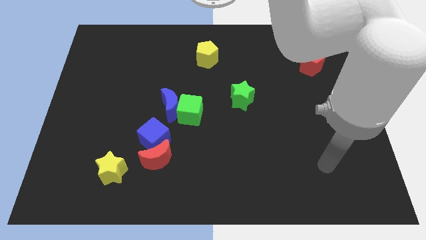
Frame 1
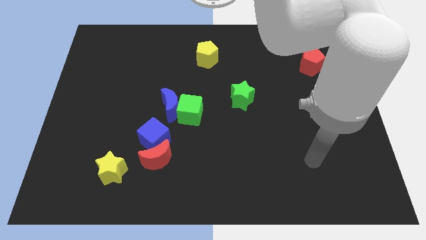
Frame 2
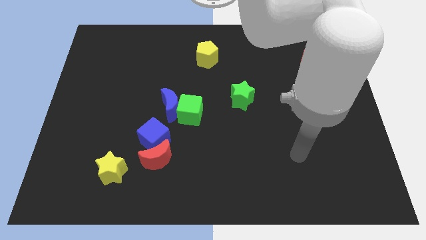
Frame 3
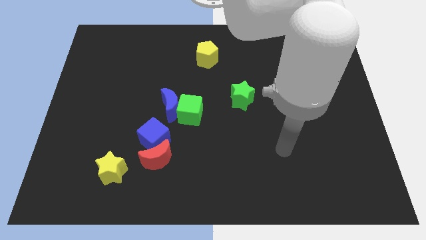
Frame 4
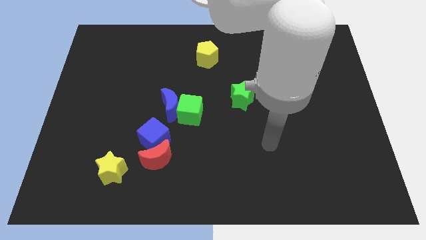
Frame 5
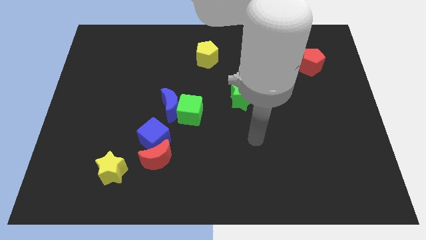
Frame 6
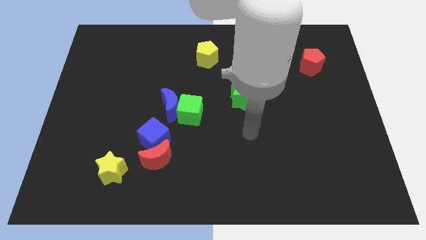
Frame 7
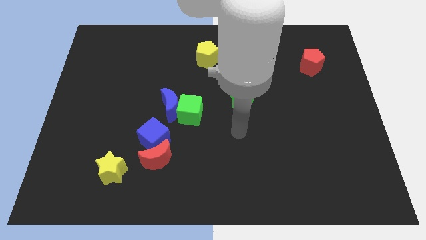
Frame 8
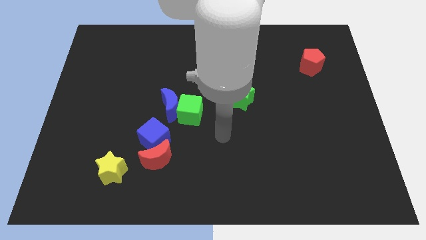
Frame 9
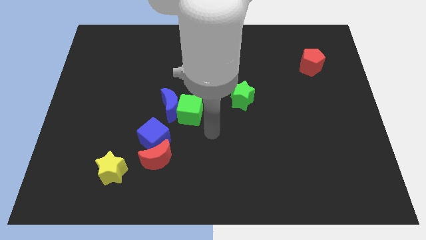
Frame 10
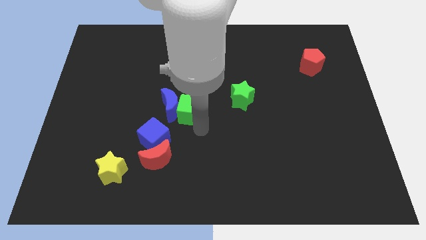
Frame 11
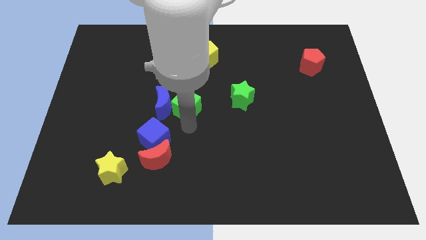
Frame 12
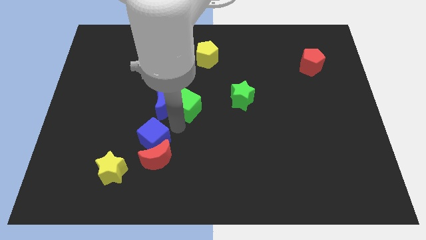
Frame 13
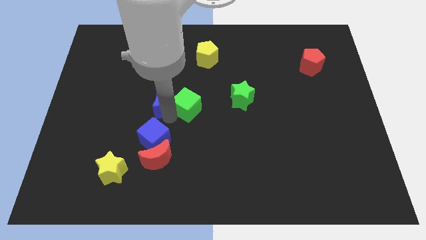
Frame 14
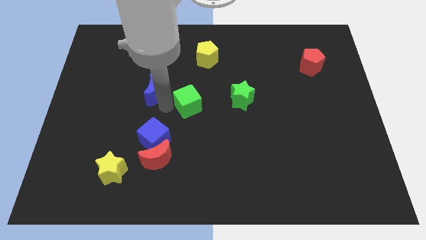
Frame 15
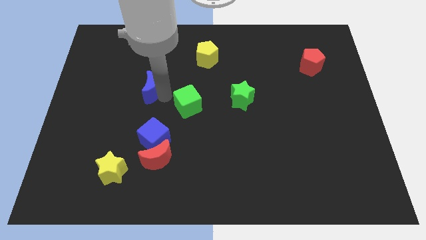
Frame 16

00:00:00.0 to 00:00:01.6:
move the green cube away from the blue moon

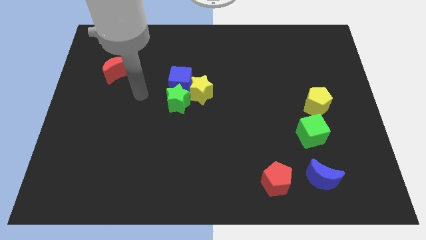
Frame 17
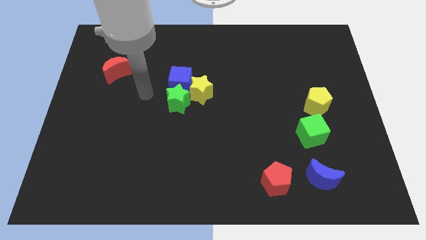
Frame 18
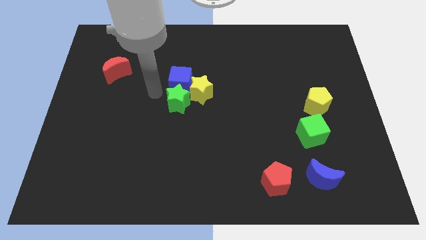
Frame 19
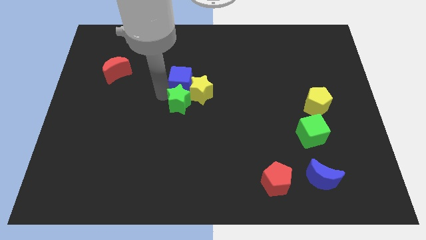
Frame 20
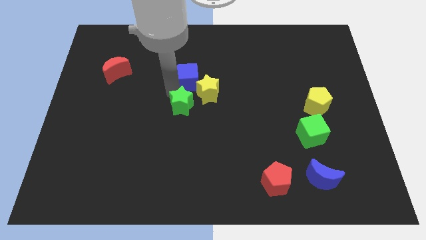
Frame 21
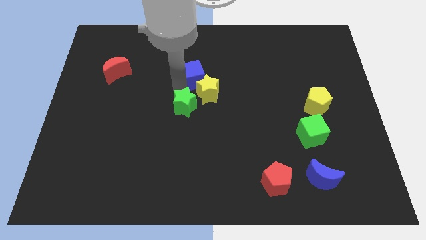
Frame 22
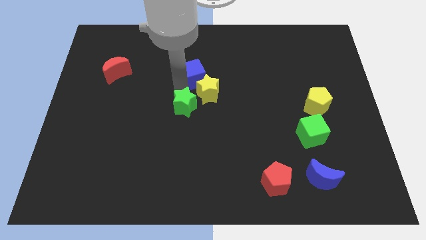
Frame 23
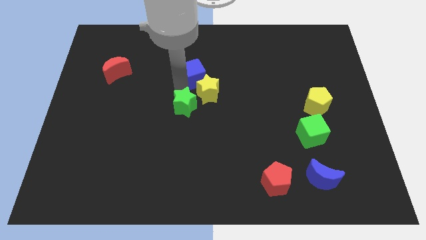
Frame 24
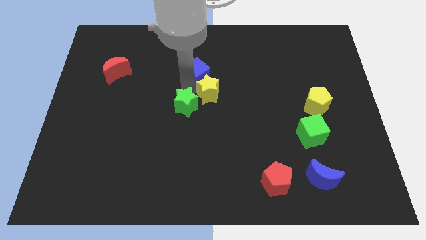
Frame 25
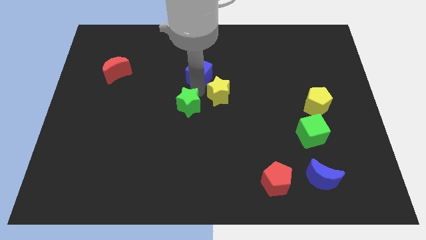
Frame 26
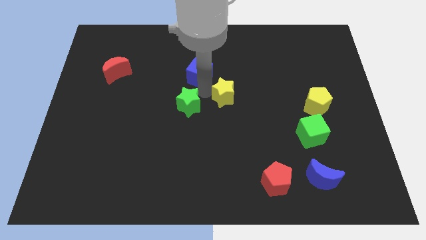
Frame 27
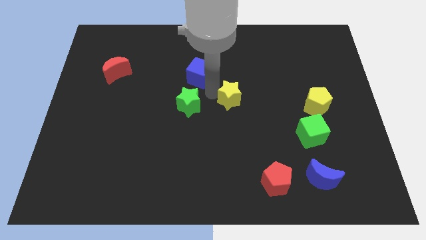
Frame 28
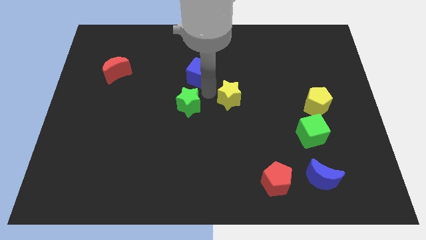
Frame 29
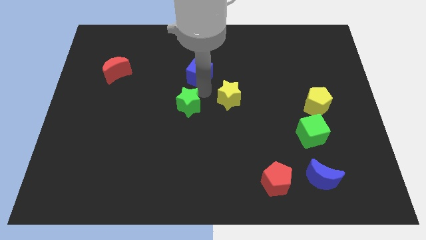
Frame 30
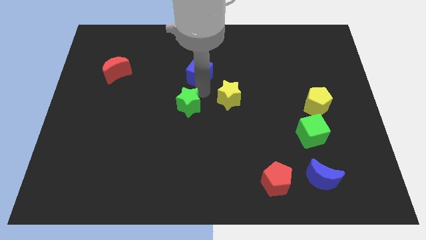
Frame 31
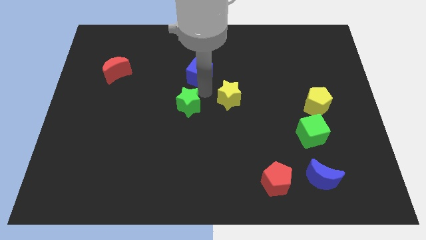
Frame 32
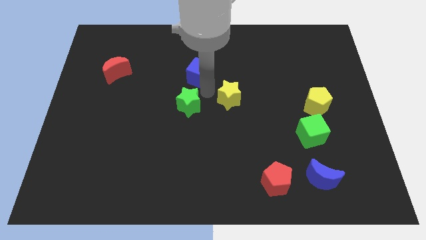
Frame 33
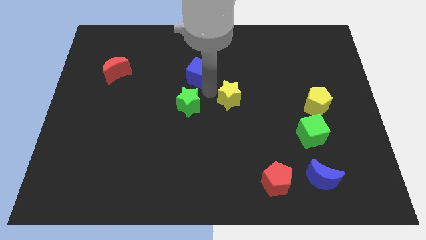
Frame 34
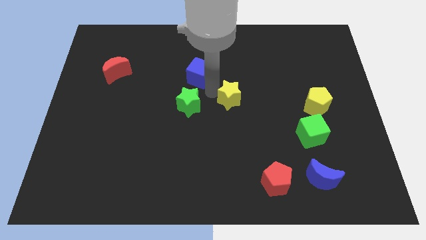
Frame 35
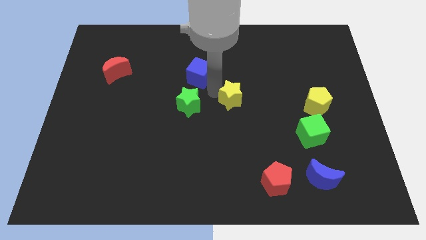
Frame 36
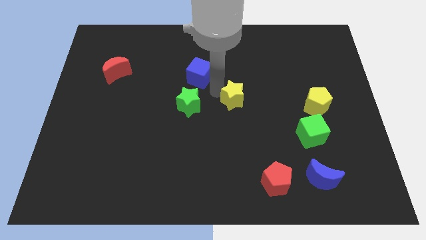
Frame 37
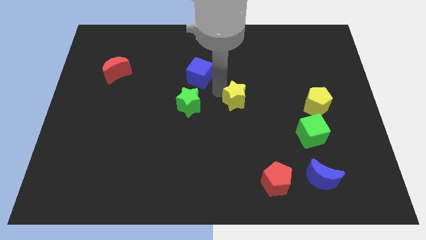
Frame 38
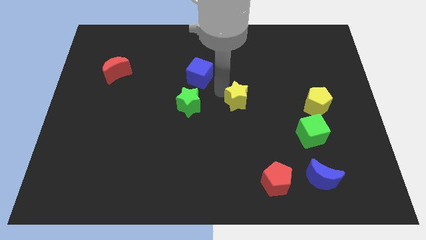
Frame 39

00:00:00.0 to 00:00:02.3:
move the yellow star away from the blue cube and green star

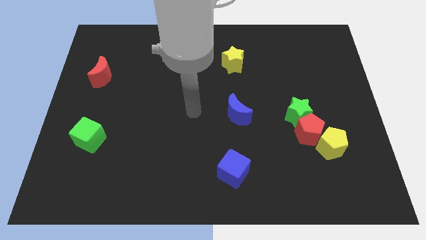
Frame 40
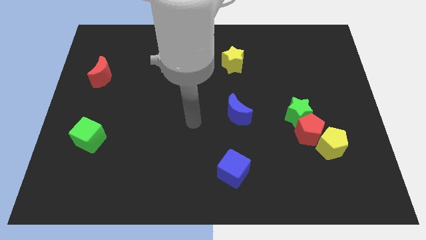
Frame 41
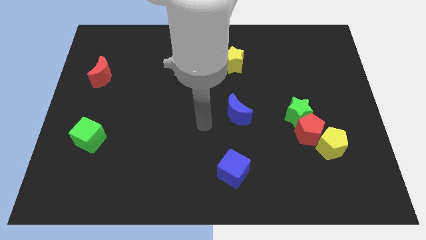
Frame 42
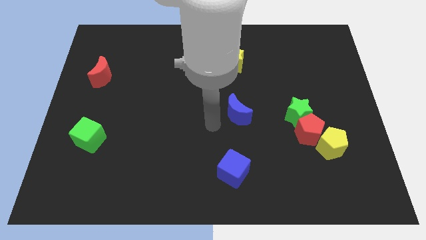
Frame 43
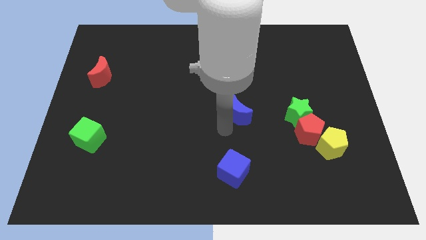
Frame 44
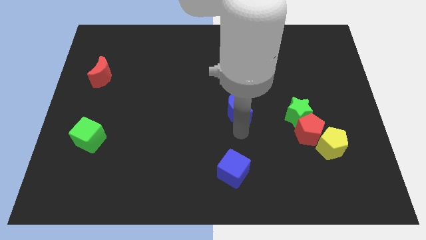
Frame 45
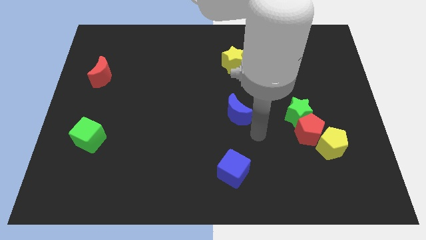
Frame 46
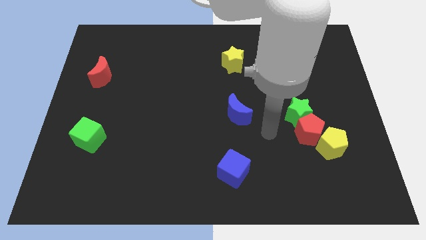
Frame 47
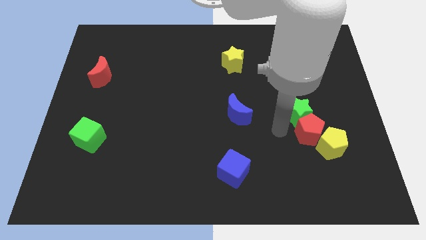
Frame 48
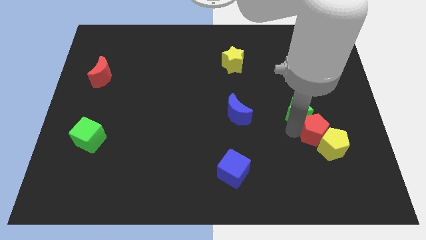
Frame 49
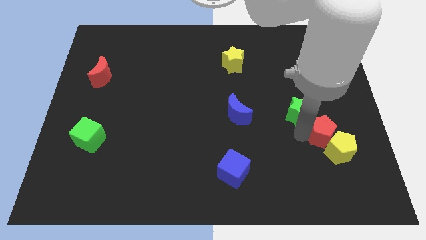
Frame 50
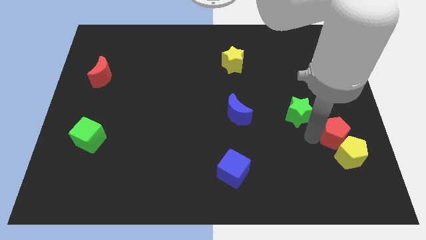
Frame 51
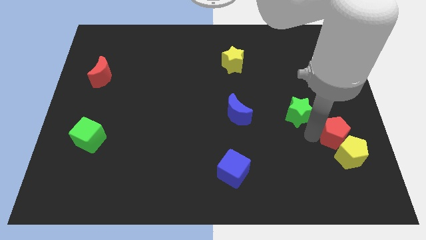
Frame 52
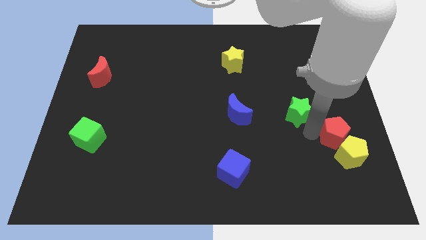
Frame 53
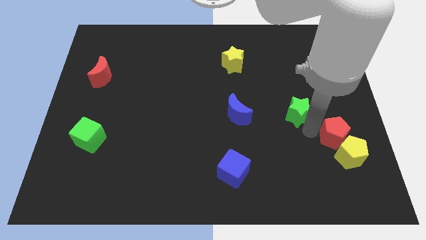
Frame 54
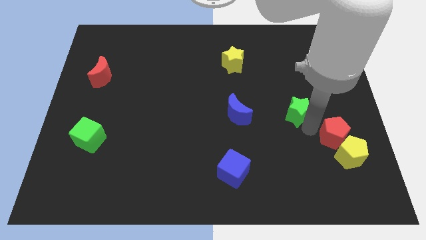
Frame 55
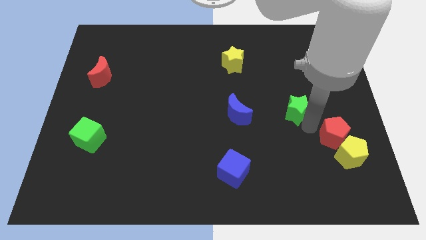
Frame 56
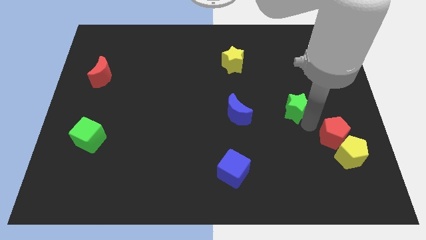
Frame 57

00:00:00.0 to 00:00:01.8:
separate the green star from the red pentagon

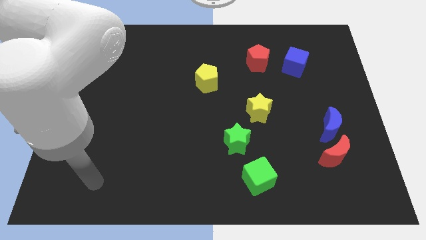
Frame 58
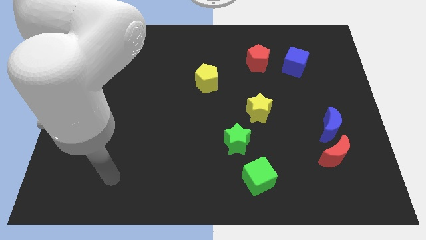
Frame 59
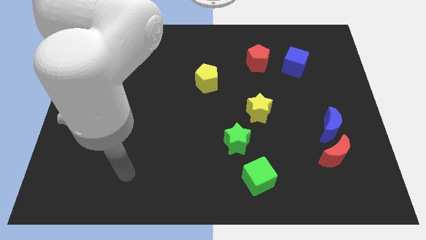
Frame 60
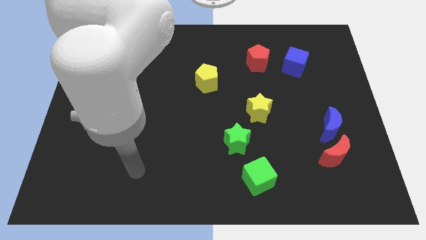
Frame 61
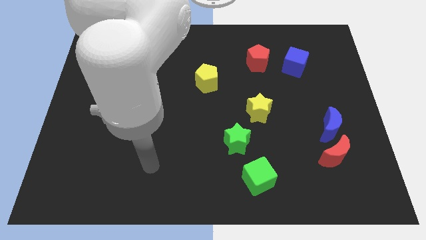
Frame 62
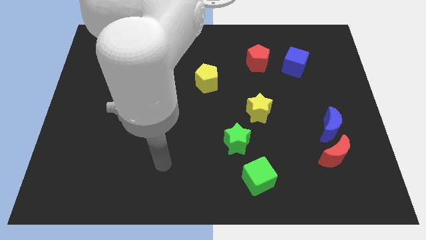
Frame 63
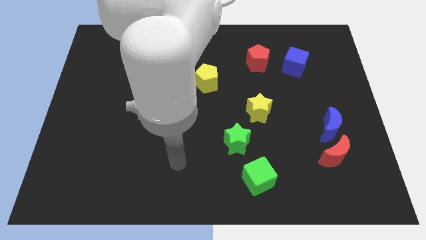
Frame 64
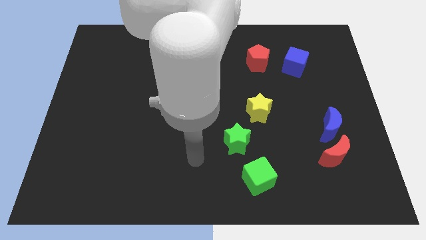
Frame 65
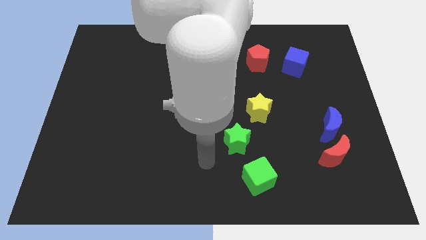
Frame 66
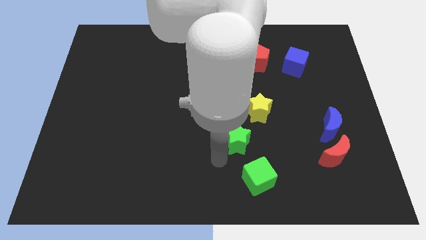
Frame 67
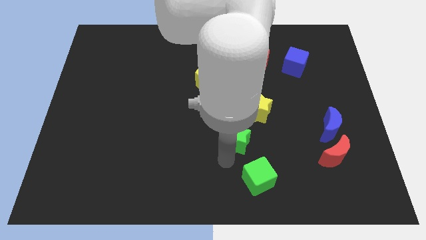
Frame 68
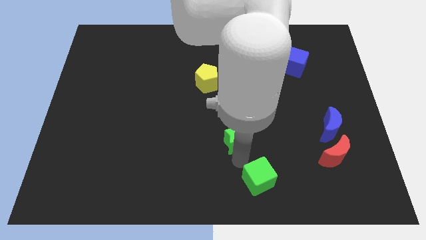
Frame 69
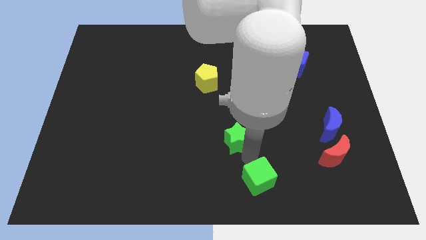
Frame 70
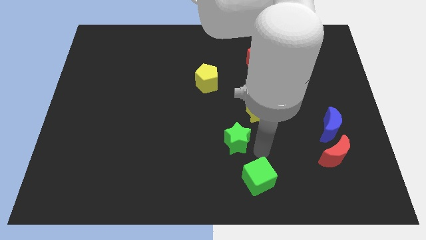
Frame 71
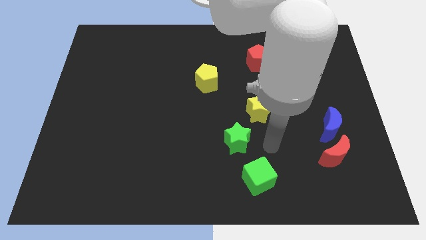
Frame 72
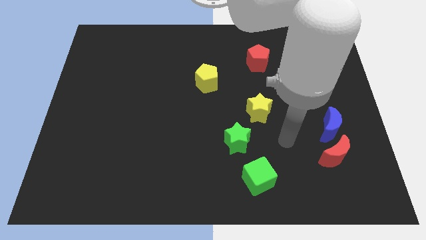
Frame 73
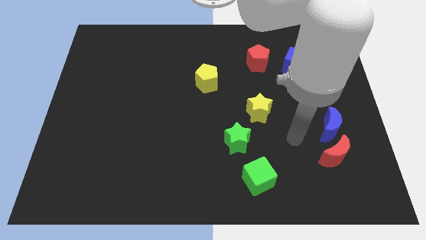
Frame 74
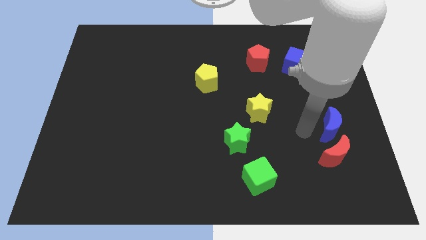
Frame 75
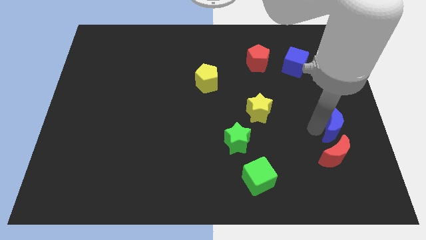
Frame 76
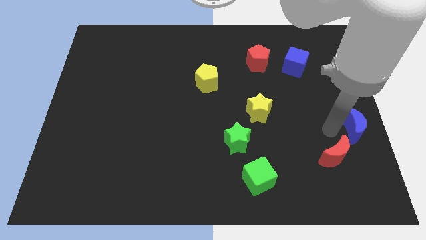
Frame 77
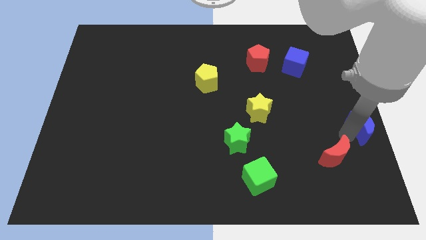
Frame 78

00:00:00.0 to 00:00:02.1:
separate the red moon from the blue moon

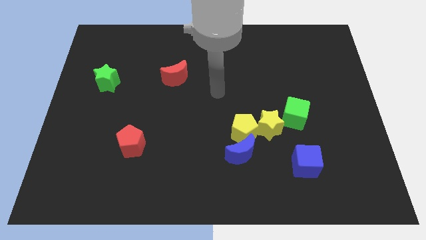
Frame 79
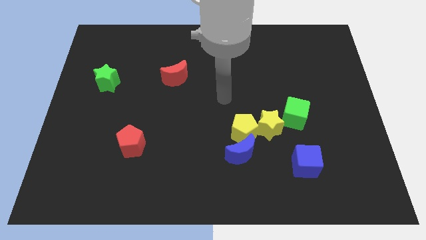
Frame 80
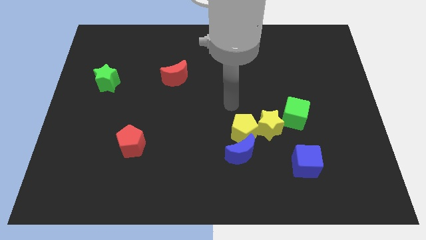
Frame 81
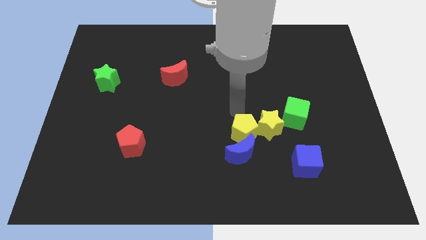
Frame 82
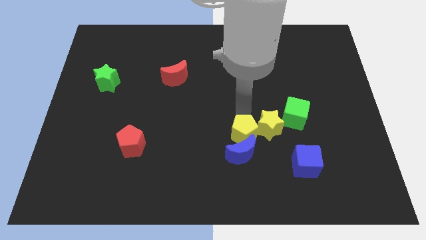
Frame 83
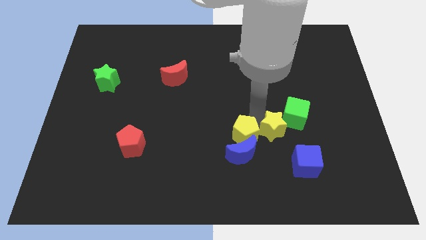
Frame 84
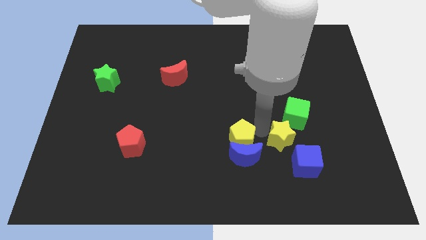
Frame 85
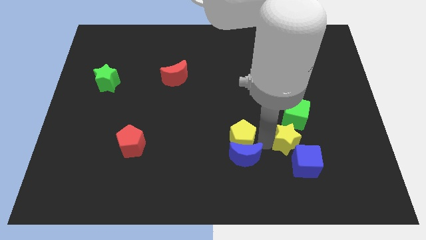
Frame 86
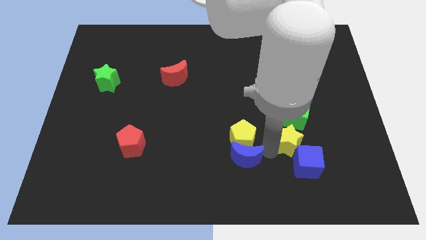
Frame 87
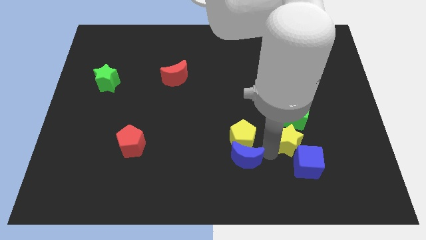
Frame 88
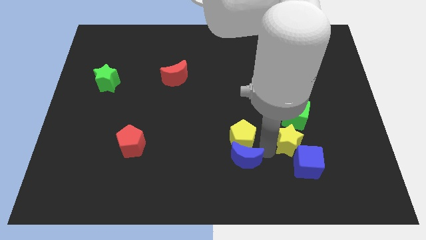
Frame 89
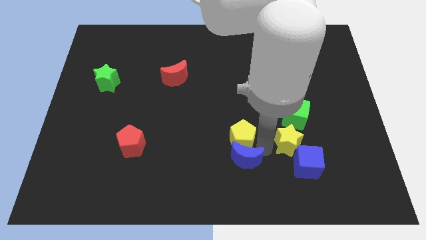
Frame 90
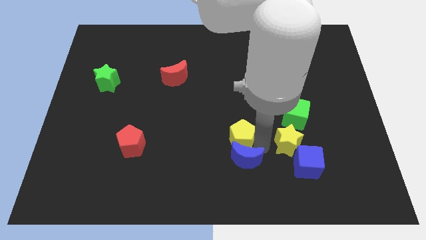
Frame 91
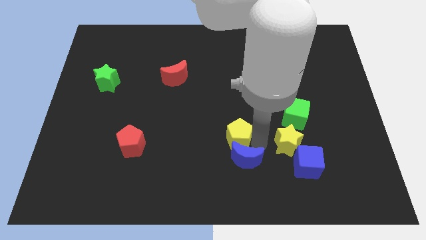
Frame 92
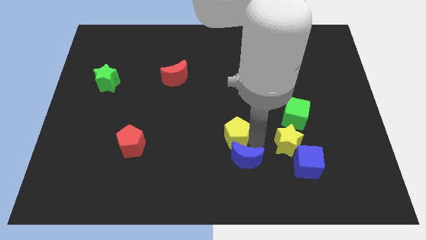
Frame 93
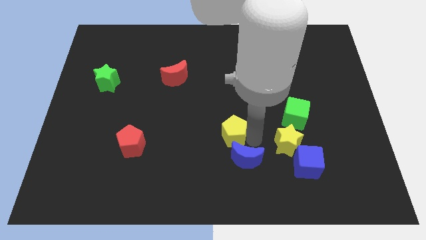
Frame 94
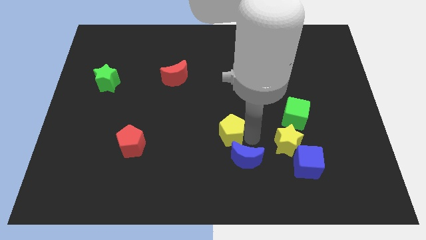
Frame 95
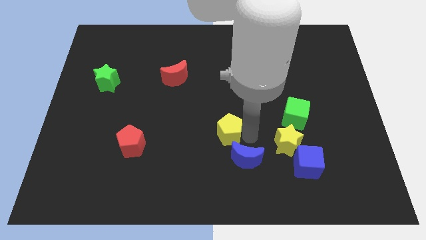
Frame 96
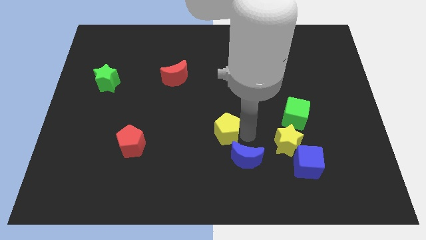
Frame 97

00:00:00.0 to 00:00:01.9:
pull the yellow pentagon apart from the blue moon and yellow star
